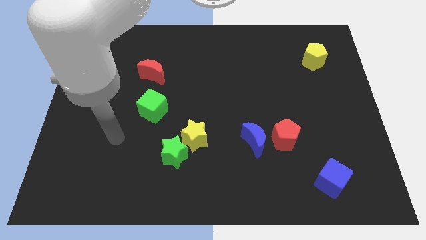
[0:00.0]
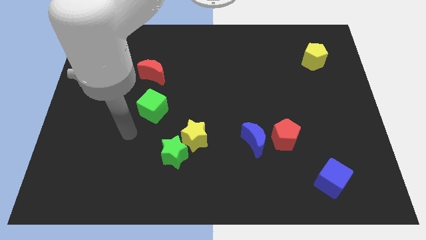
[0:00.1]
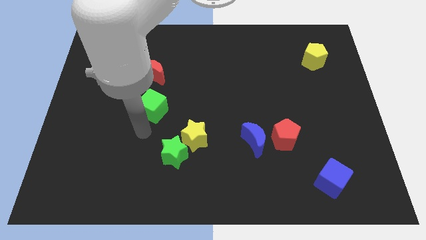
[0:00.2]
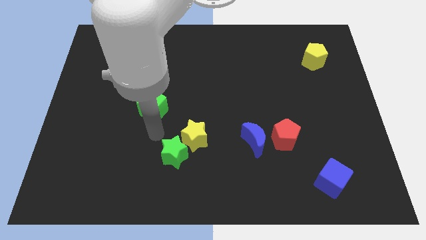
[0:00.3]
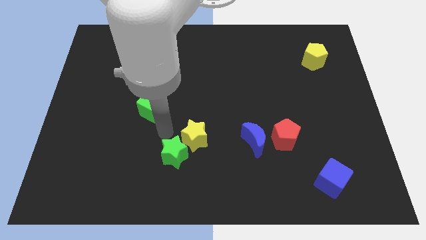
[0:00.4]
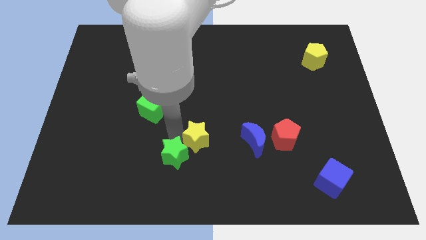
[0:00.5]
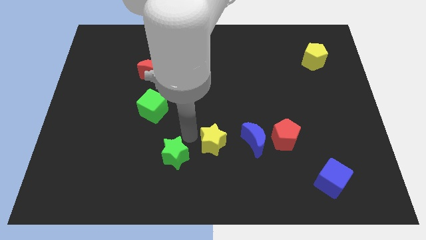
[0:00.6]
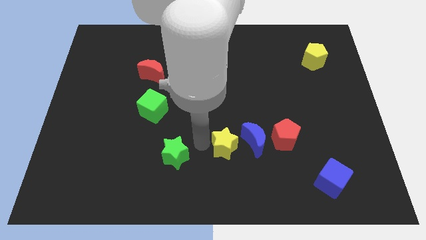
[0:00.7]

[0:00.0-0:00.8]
pull the green star apart from the yellow star

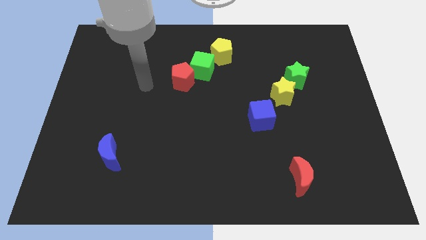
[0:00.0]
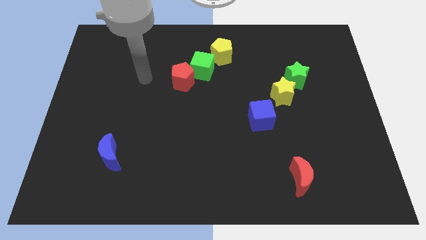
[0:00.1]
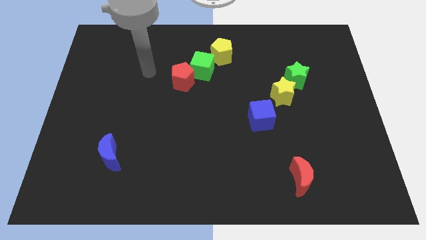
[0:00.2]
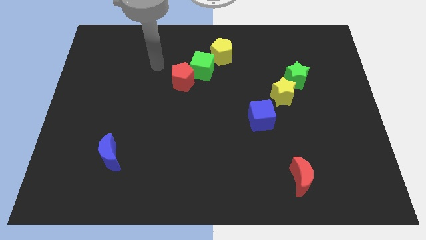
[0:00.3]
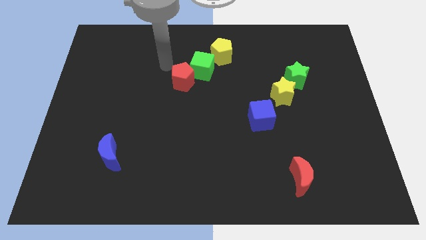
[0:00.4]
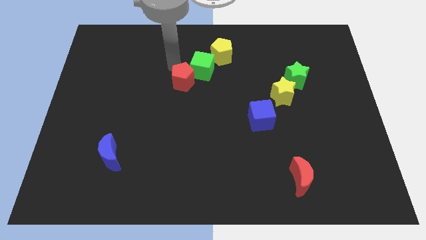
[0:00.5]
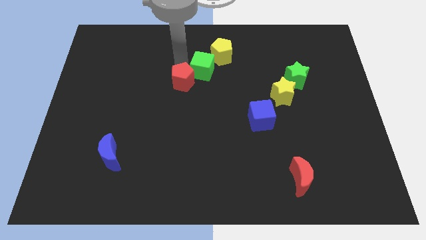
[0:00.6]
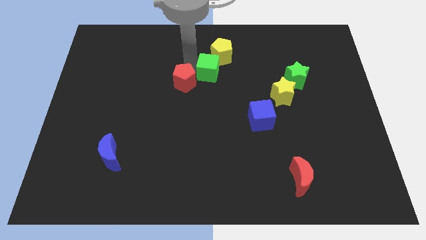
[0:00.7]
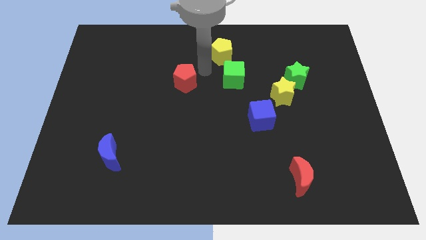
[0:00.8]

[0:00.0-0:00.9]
move the red pentagon away from the green cube

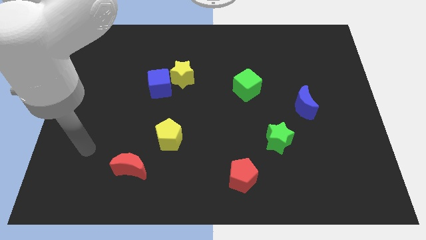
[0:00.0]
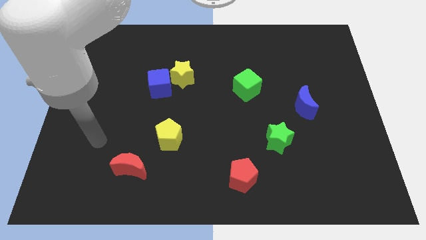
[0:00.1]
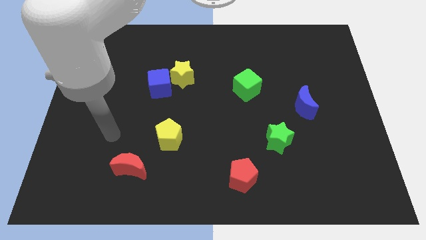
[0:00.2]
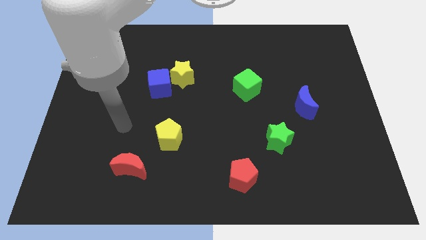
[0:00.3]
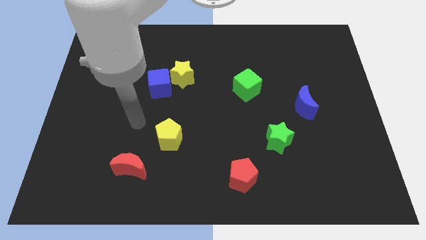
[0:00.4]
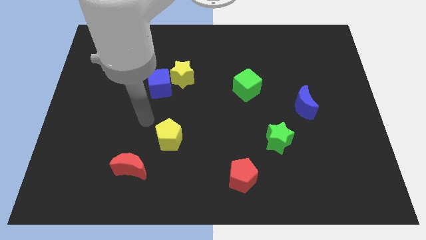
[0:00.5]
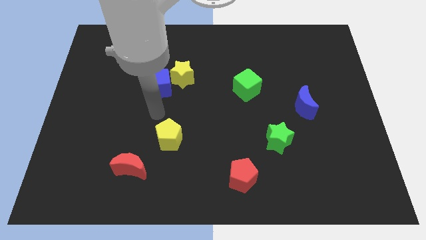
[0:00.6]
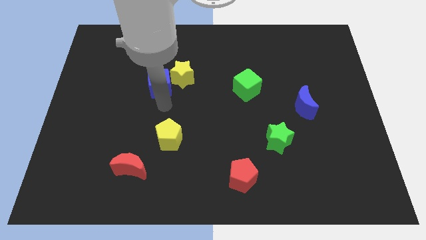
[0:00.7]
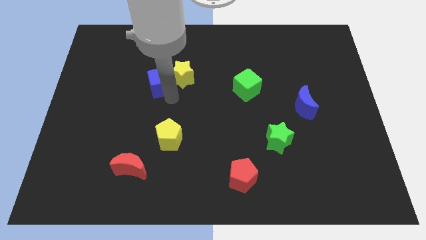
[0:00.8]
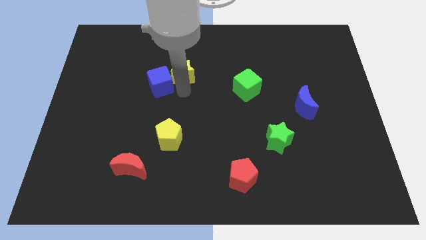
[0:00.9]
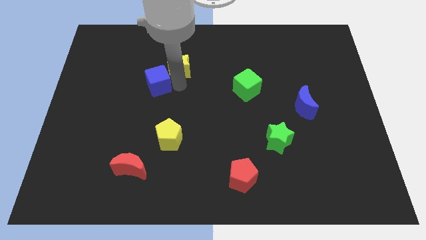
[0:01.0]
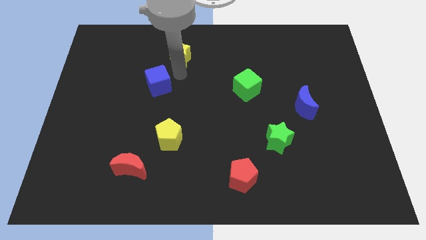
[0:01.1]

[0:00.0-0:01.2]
separate the blue cube from the yellow star

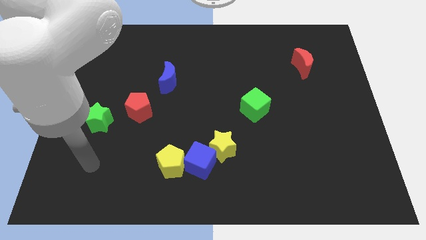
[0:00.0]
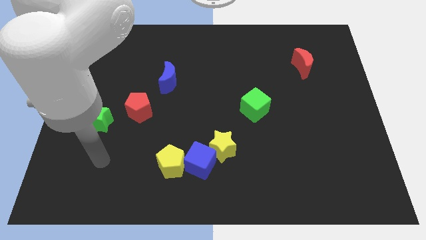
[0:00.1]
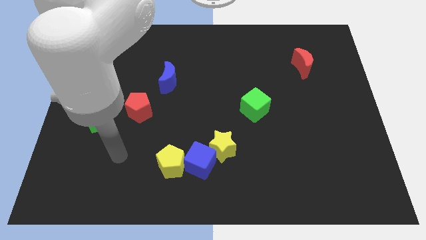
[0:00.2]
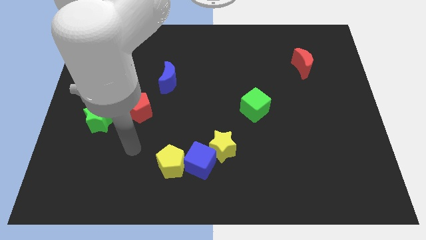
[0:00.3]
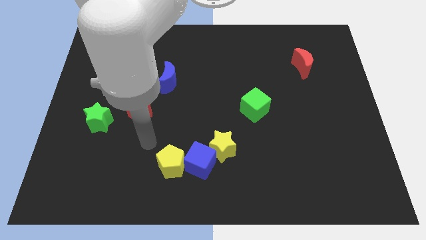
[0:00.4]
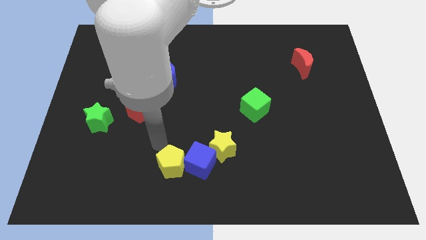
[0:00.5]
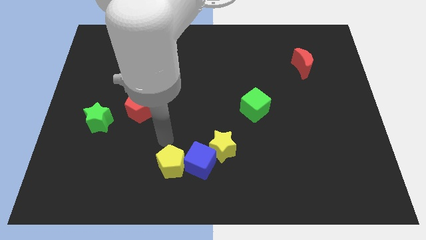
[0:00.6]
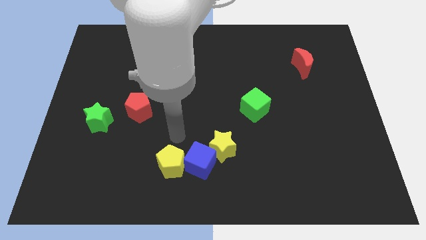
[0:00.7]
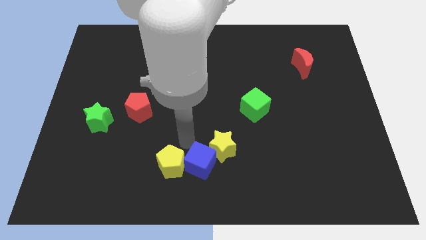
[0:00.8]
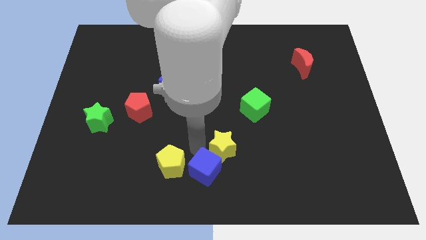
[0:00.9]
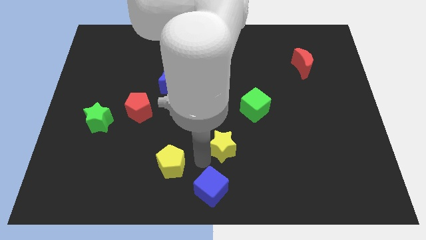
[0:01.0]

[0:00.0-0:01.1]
pull the yellow pentagon apart from the blue cube

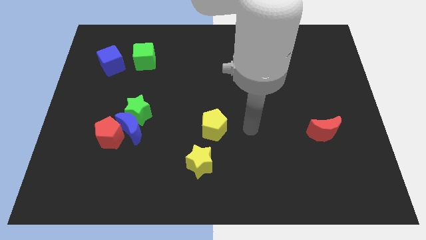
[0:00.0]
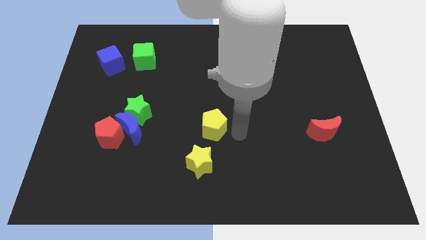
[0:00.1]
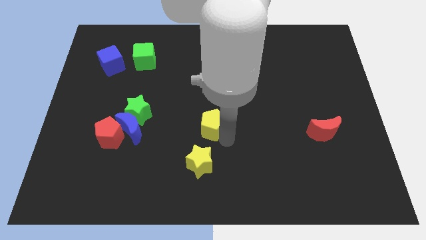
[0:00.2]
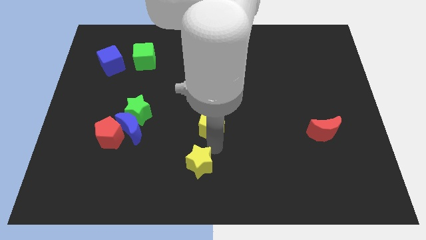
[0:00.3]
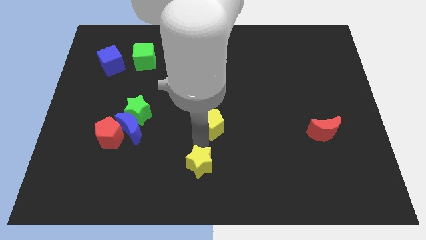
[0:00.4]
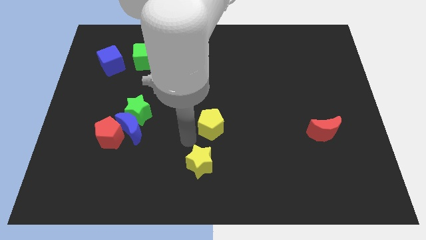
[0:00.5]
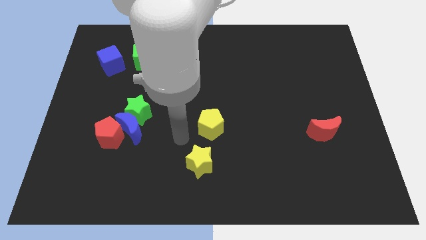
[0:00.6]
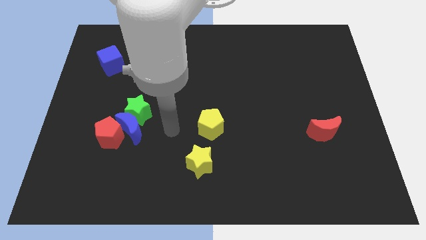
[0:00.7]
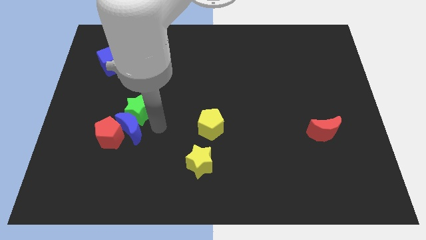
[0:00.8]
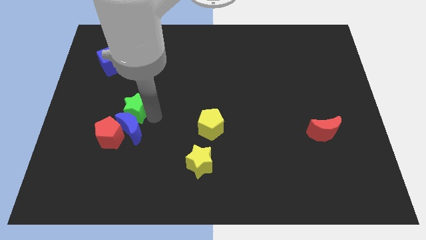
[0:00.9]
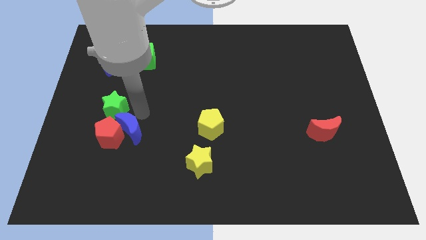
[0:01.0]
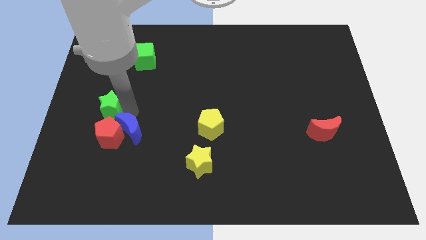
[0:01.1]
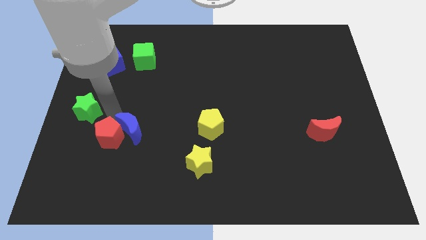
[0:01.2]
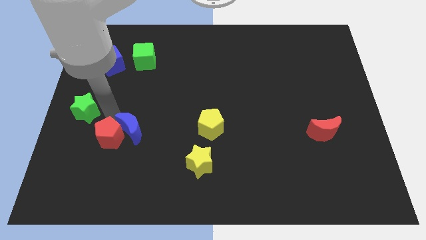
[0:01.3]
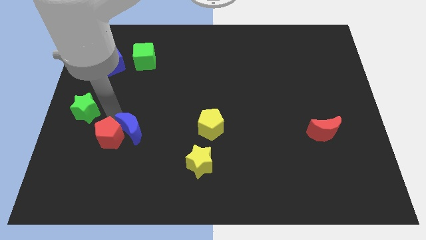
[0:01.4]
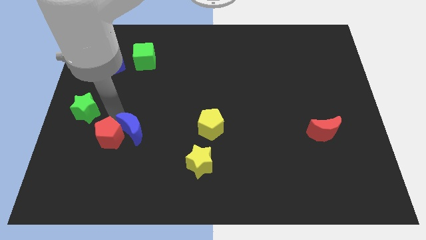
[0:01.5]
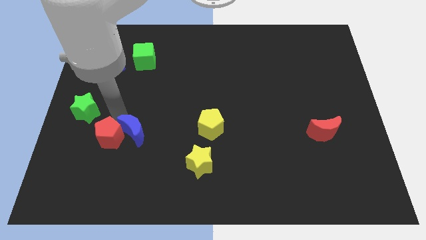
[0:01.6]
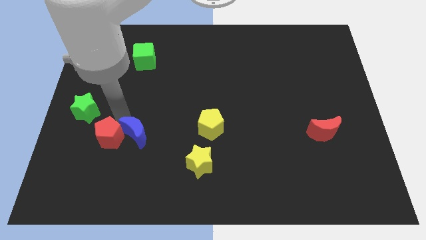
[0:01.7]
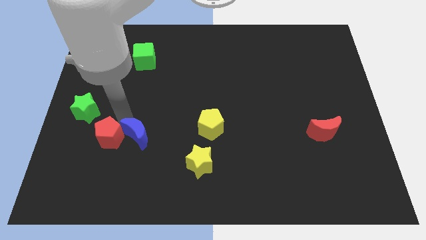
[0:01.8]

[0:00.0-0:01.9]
separate the blue moon from the green star and red pentagon

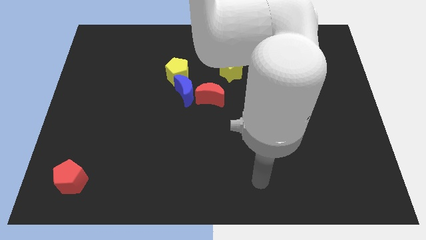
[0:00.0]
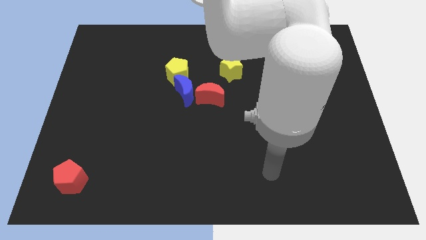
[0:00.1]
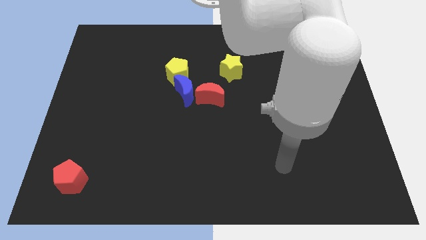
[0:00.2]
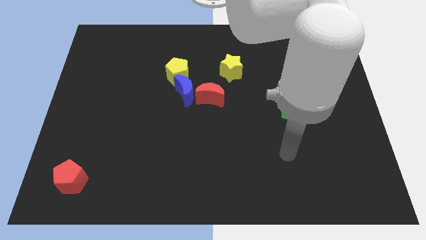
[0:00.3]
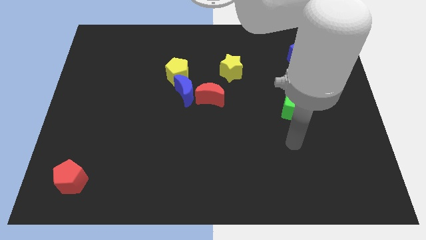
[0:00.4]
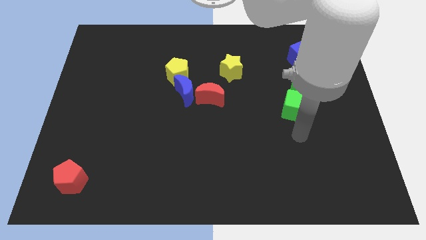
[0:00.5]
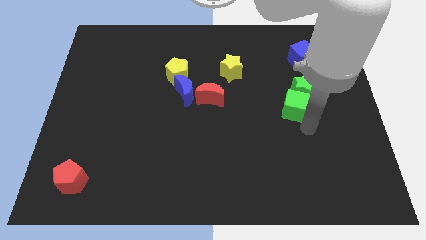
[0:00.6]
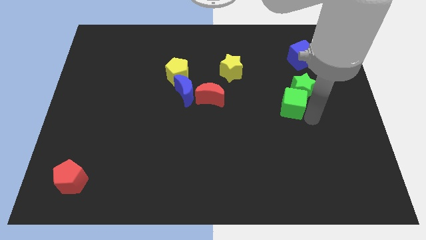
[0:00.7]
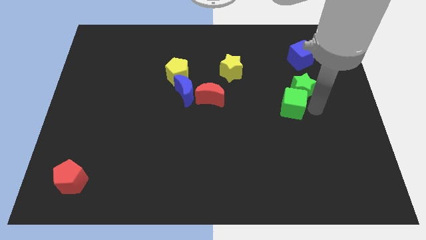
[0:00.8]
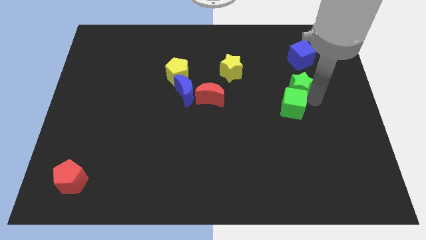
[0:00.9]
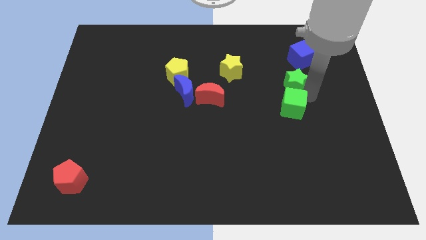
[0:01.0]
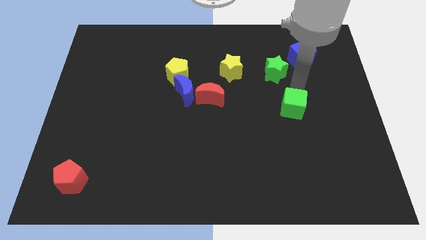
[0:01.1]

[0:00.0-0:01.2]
move the green cube away from the green star

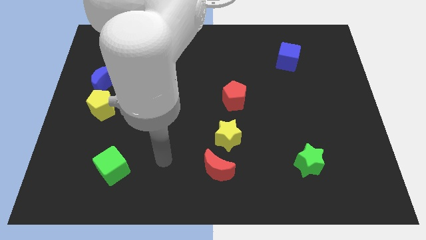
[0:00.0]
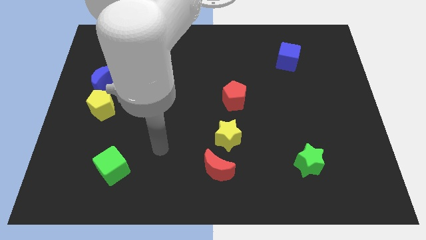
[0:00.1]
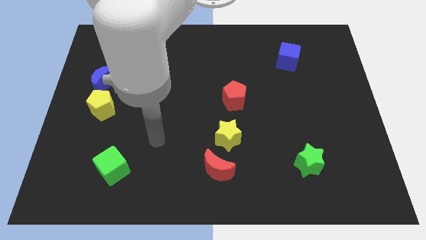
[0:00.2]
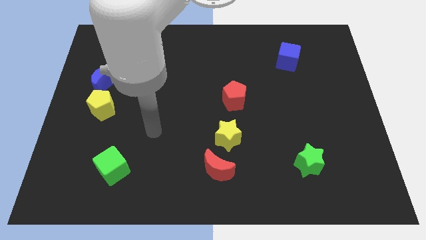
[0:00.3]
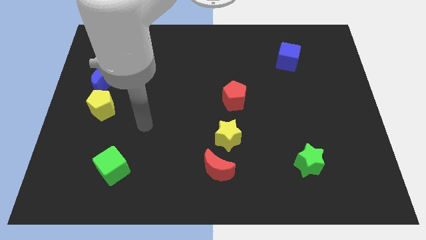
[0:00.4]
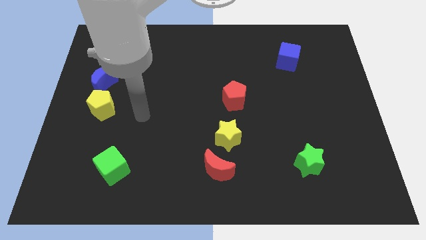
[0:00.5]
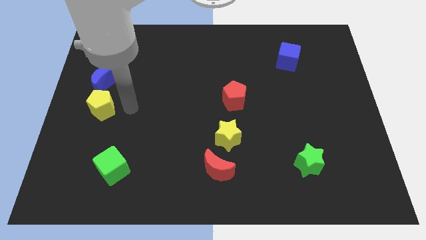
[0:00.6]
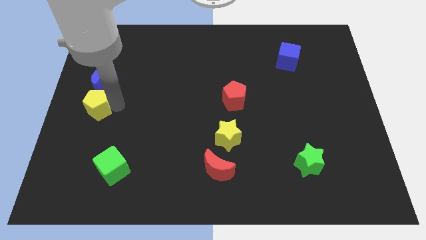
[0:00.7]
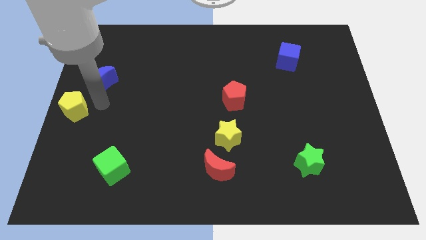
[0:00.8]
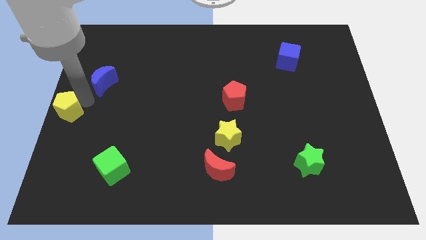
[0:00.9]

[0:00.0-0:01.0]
move the blue moon away from the yellow pentagon

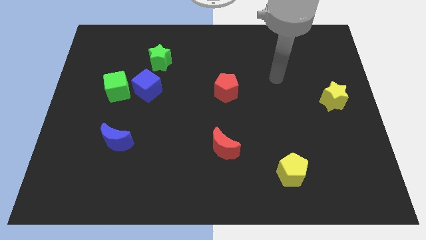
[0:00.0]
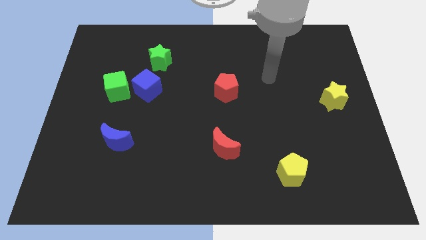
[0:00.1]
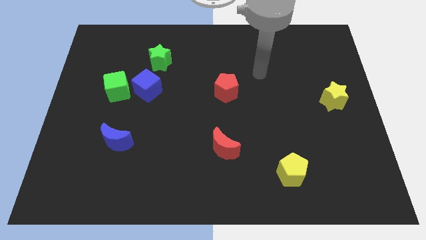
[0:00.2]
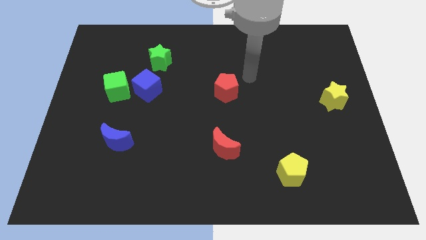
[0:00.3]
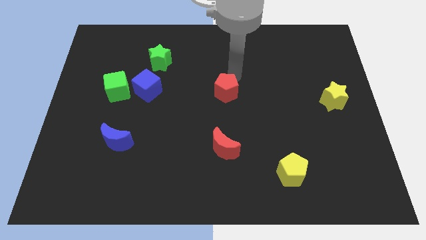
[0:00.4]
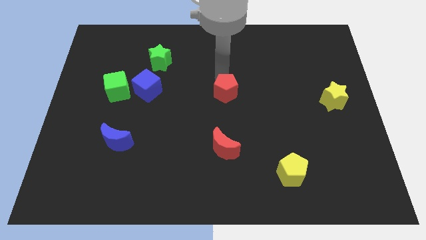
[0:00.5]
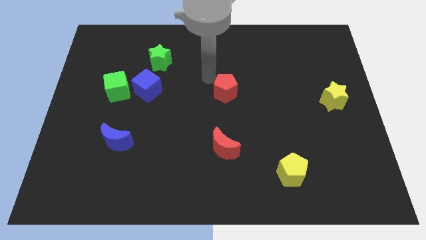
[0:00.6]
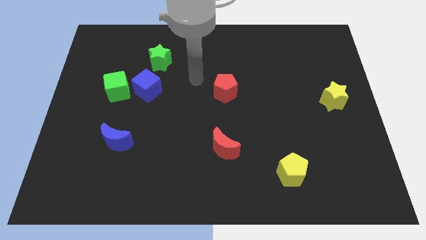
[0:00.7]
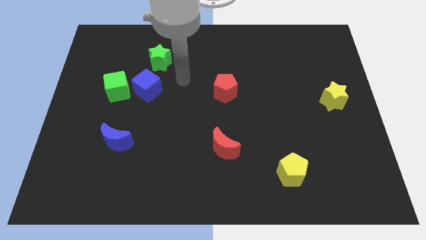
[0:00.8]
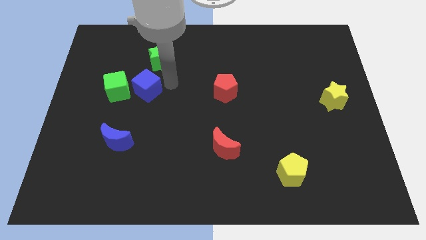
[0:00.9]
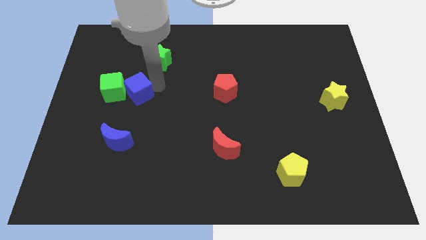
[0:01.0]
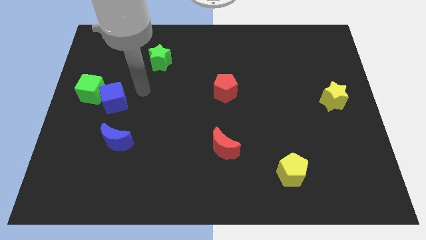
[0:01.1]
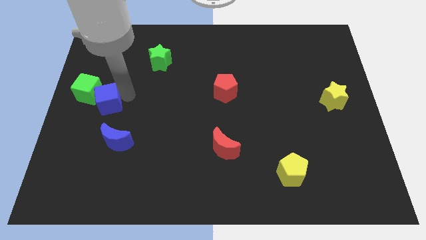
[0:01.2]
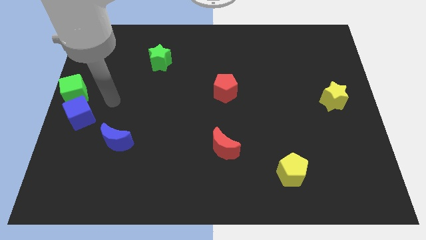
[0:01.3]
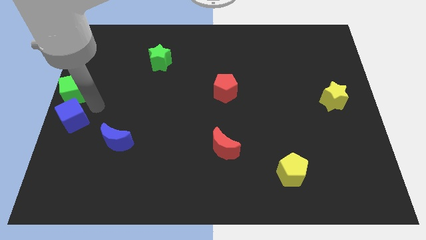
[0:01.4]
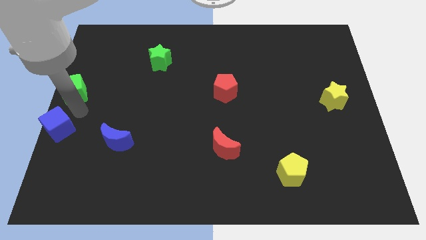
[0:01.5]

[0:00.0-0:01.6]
pull the green cube apart from the blue cube
